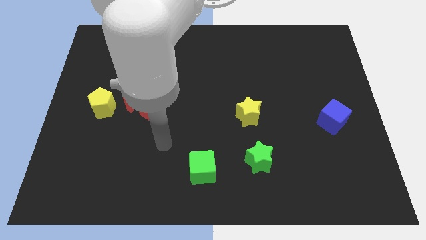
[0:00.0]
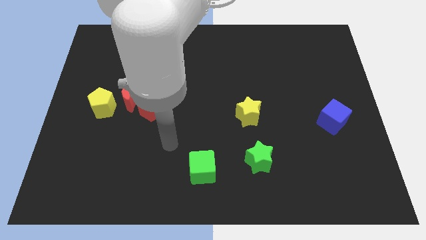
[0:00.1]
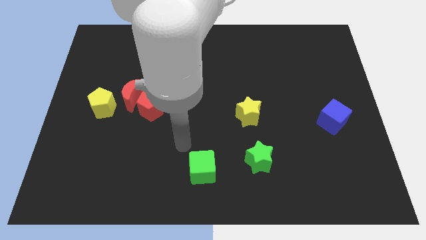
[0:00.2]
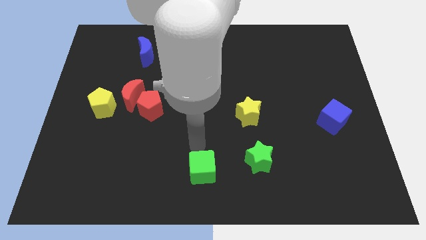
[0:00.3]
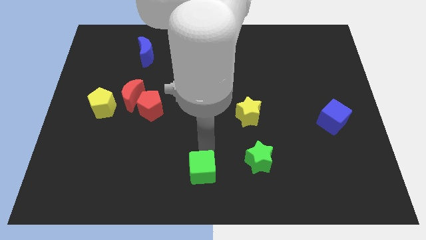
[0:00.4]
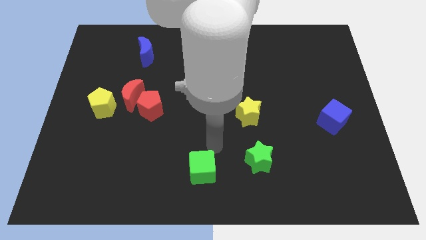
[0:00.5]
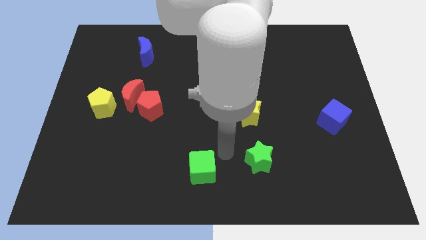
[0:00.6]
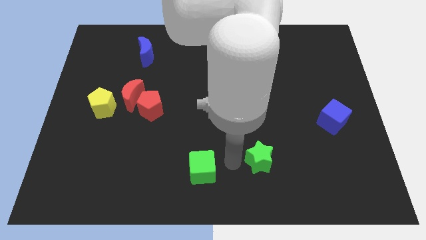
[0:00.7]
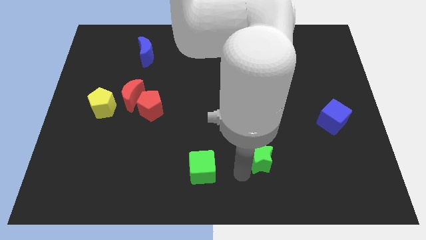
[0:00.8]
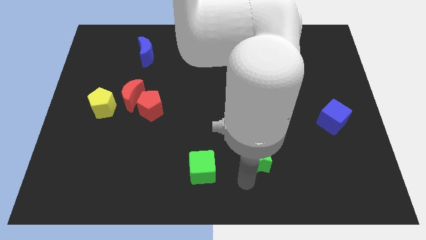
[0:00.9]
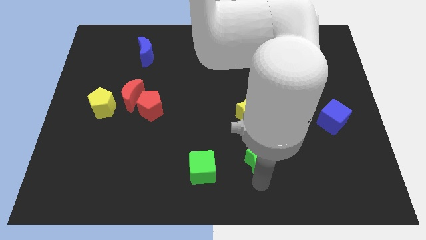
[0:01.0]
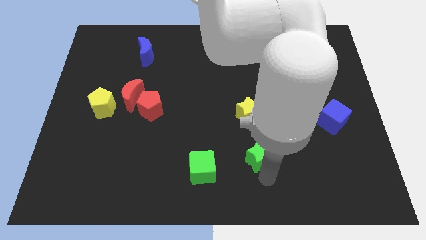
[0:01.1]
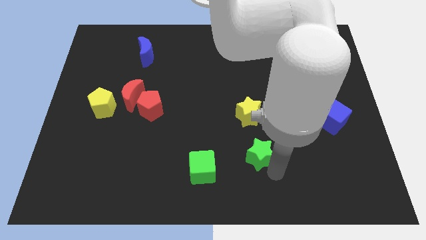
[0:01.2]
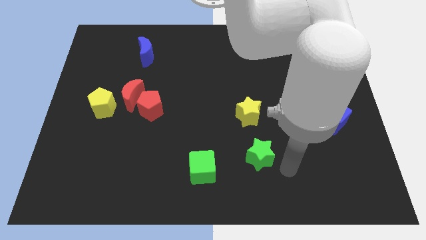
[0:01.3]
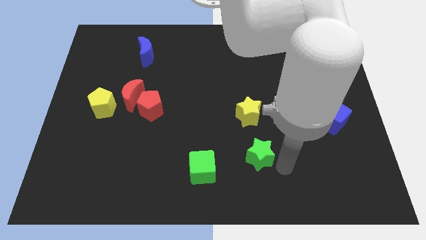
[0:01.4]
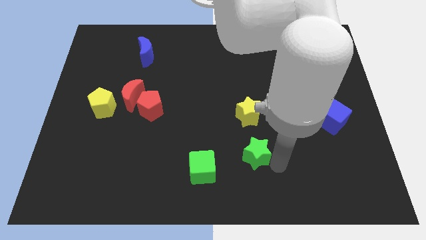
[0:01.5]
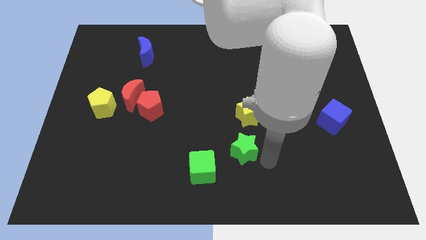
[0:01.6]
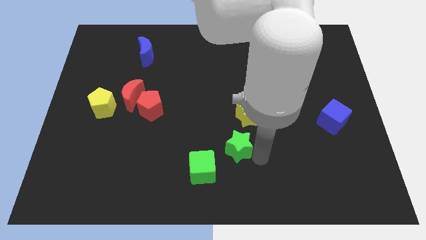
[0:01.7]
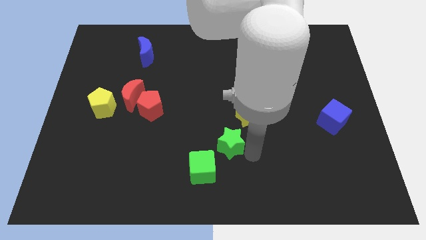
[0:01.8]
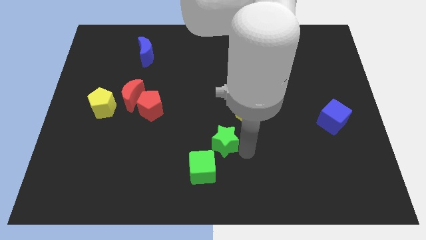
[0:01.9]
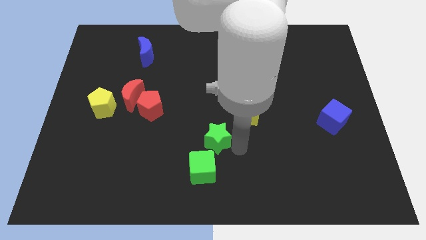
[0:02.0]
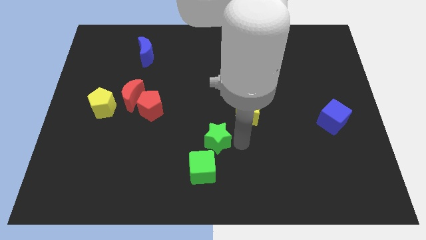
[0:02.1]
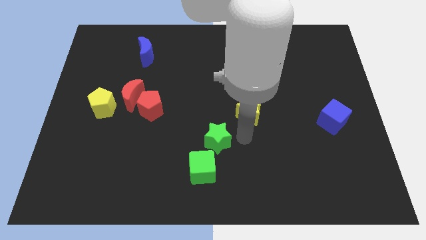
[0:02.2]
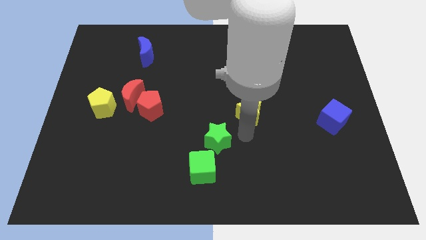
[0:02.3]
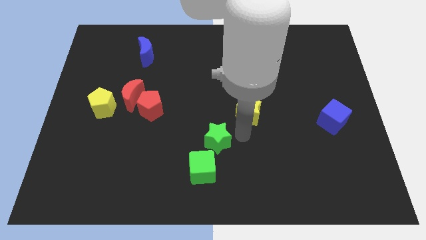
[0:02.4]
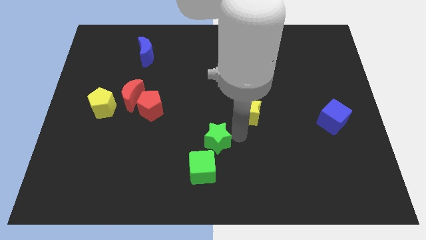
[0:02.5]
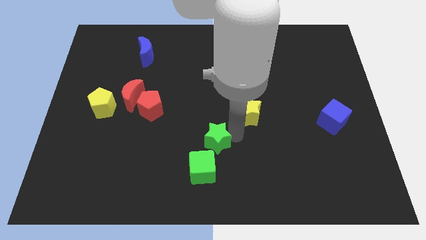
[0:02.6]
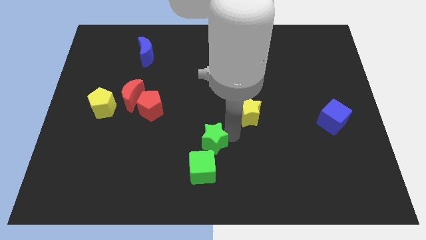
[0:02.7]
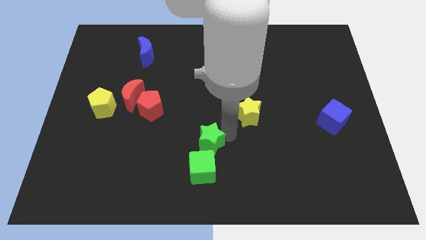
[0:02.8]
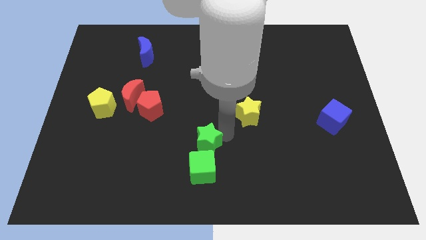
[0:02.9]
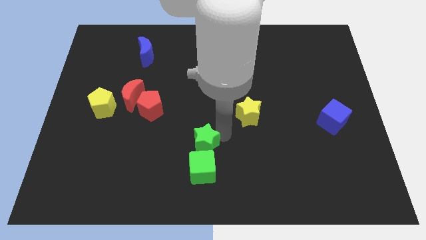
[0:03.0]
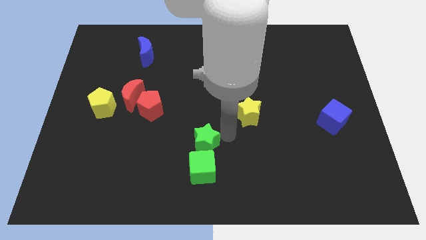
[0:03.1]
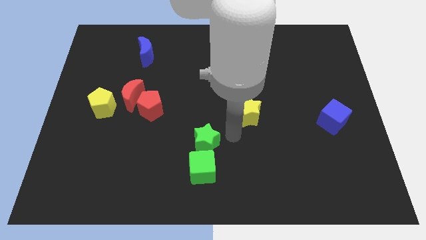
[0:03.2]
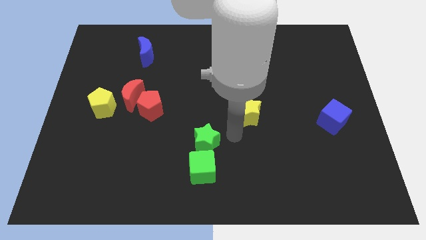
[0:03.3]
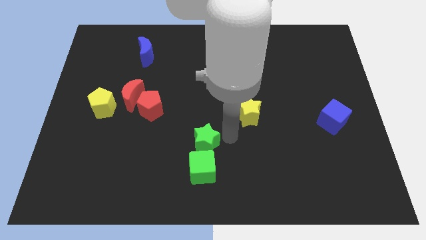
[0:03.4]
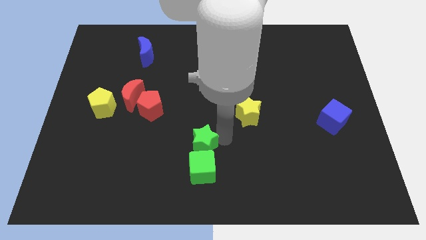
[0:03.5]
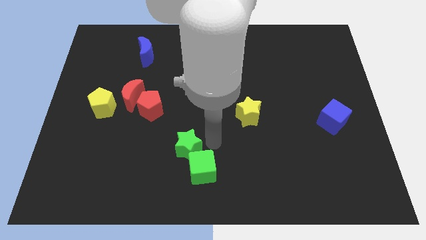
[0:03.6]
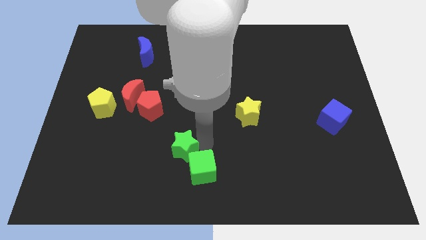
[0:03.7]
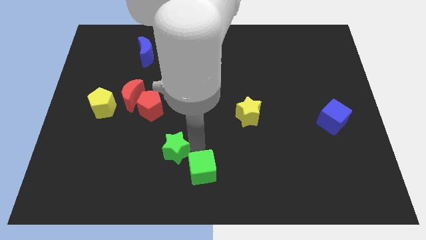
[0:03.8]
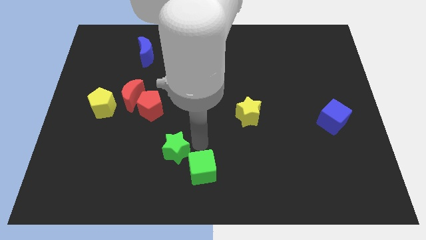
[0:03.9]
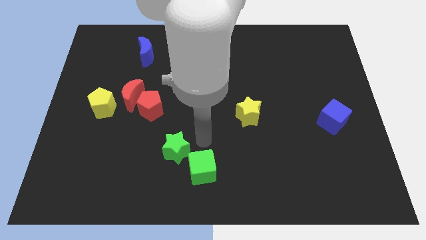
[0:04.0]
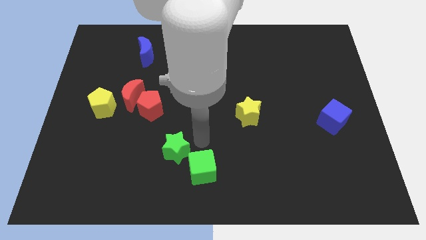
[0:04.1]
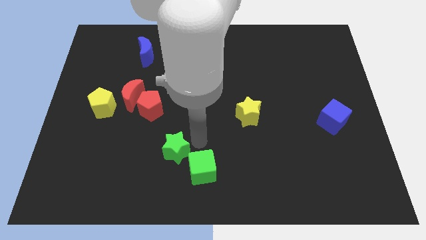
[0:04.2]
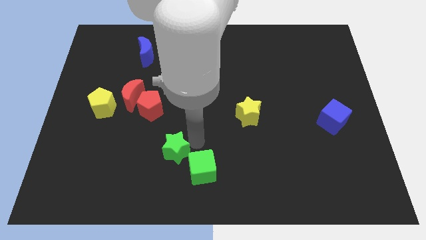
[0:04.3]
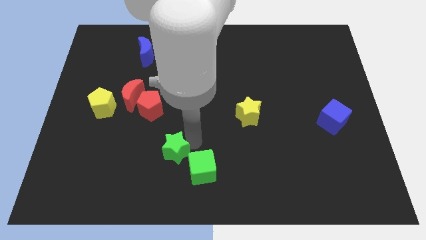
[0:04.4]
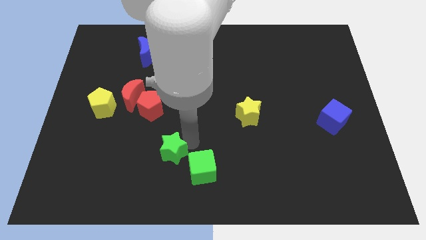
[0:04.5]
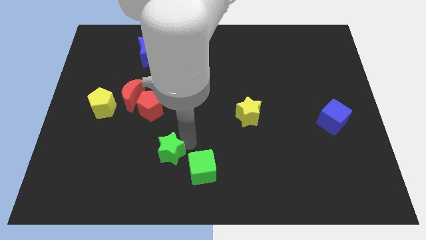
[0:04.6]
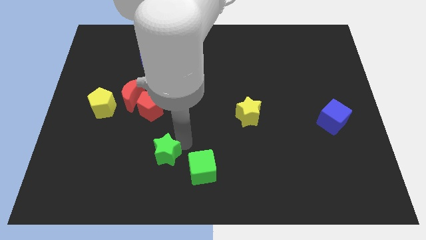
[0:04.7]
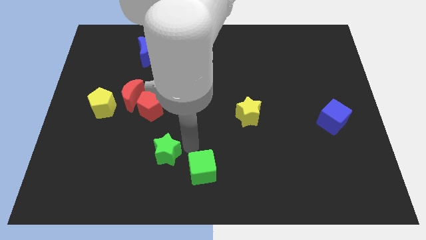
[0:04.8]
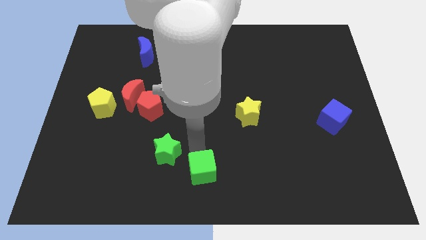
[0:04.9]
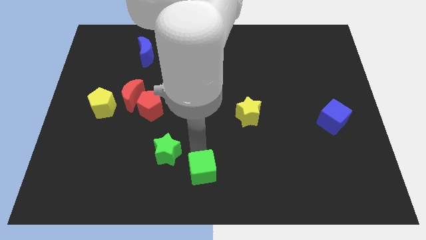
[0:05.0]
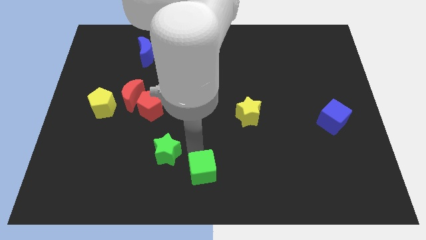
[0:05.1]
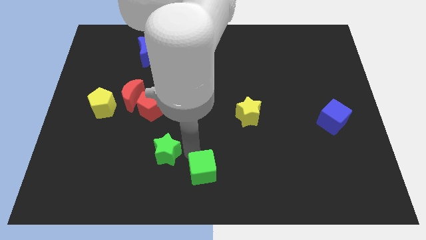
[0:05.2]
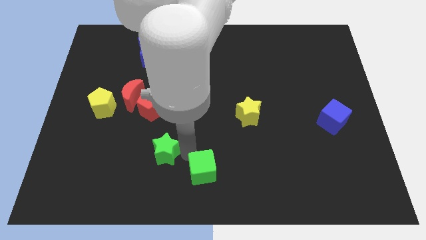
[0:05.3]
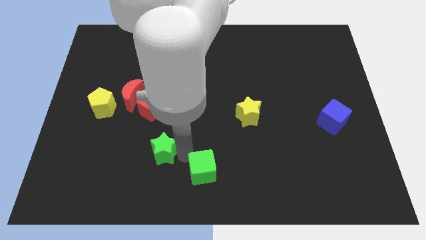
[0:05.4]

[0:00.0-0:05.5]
move the green star to the left

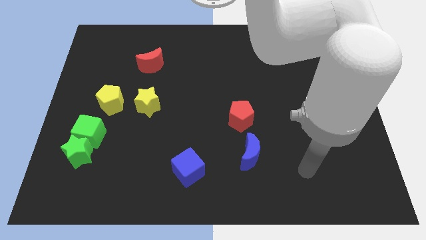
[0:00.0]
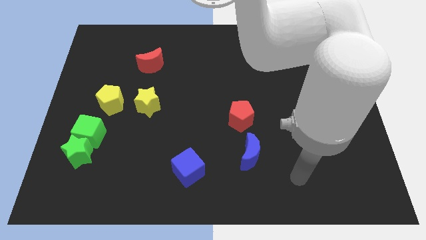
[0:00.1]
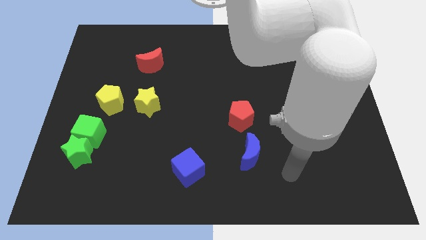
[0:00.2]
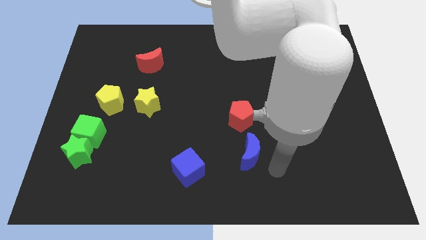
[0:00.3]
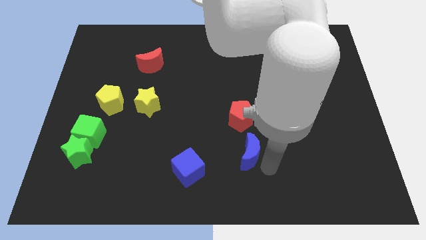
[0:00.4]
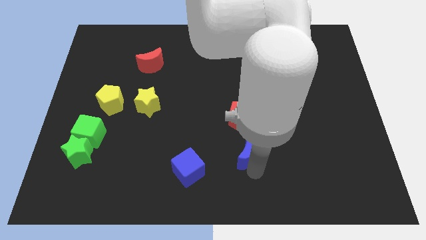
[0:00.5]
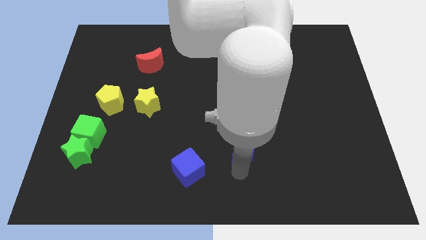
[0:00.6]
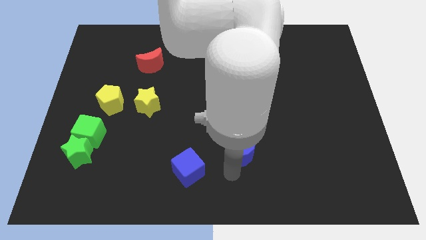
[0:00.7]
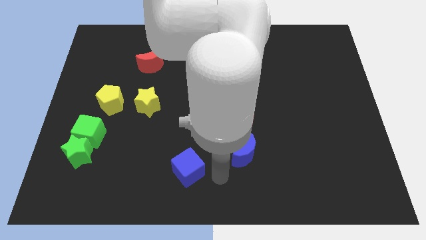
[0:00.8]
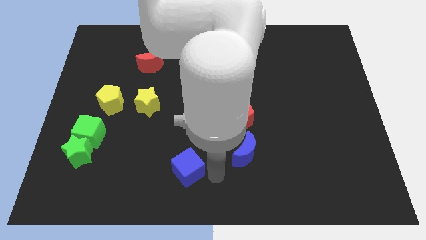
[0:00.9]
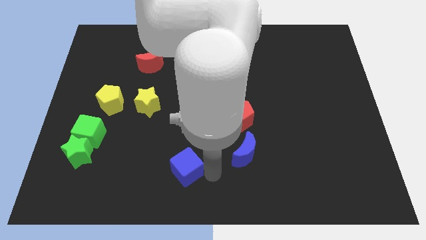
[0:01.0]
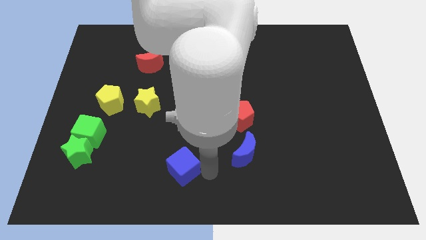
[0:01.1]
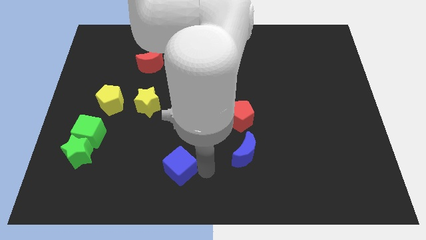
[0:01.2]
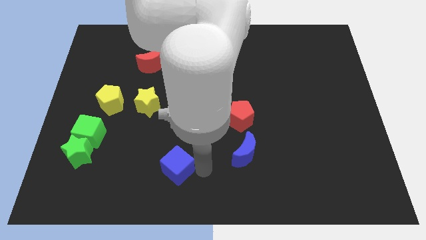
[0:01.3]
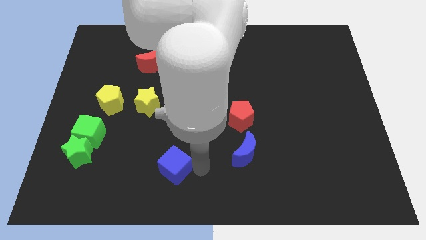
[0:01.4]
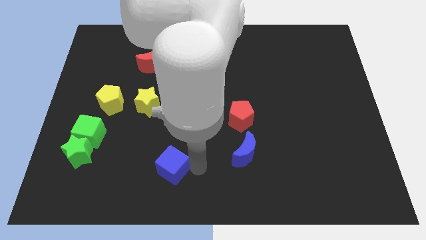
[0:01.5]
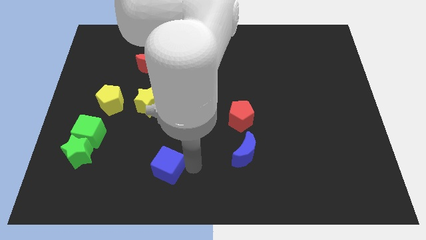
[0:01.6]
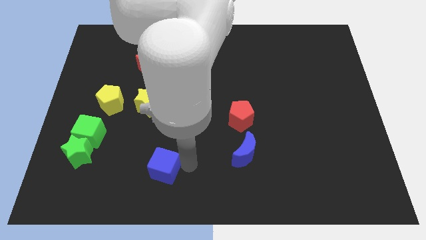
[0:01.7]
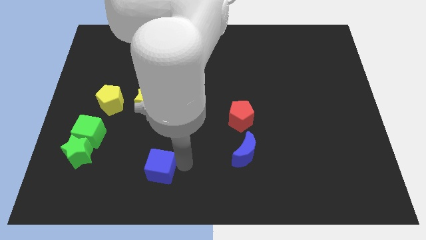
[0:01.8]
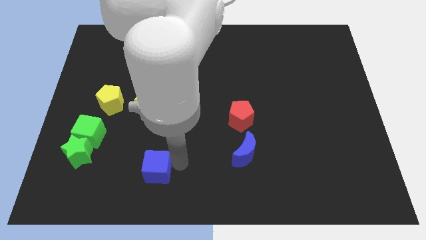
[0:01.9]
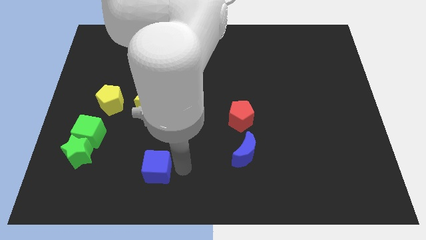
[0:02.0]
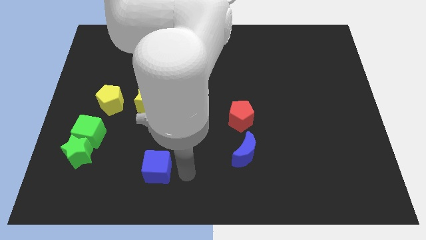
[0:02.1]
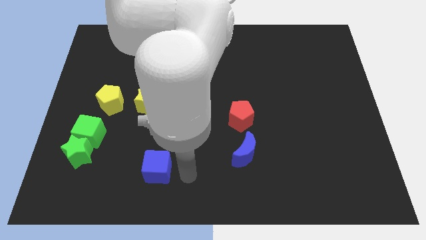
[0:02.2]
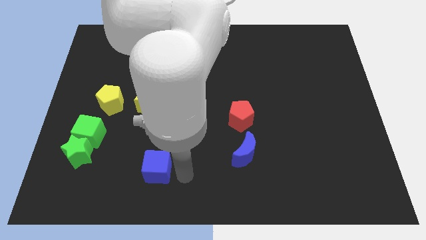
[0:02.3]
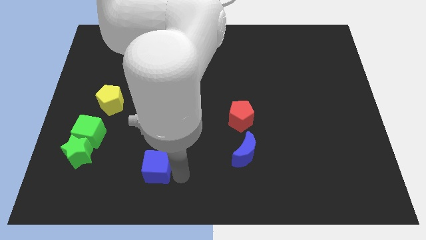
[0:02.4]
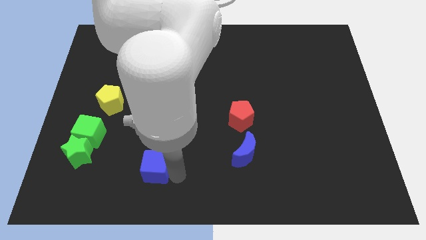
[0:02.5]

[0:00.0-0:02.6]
slide the blue cube slightly to the left
